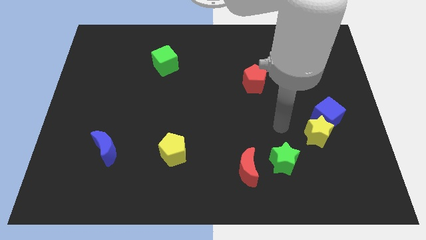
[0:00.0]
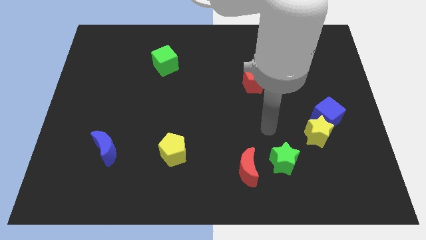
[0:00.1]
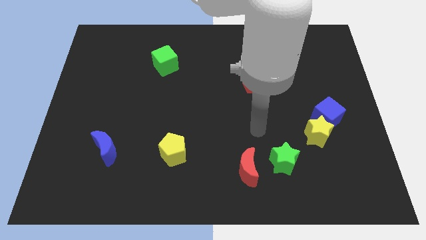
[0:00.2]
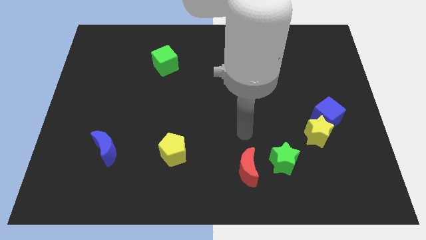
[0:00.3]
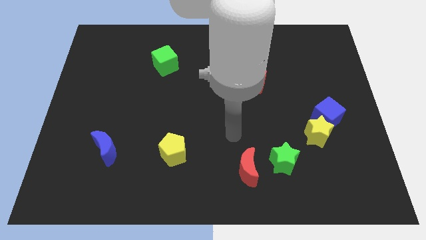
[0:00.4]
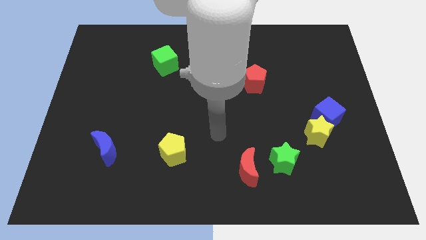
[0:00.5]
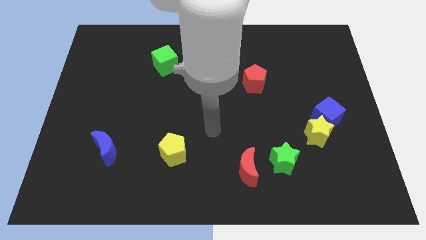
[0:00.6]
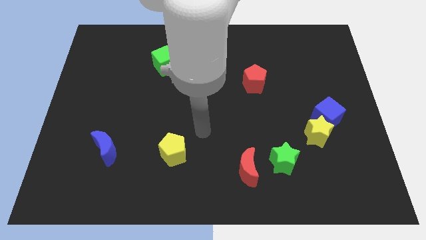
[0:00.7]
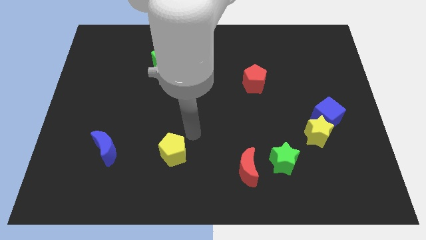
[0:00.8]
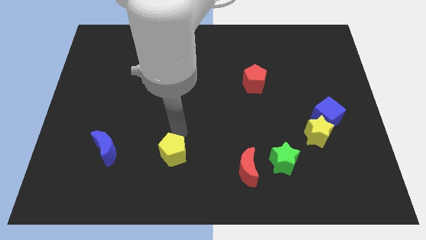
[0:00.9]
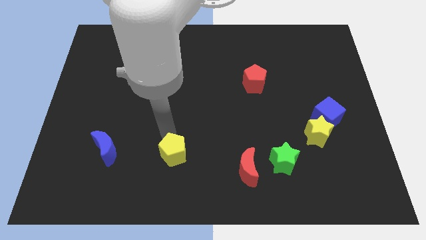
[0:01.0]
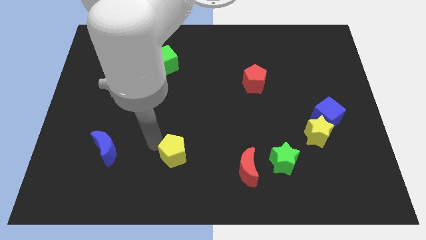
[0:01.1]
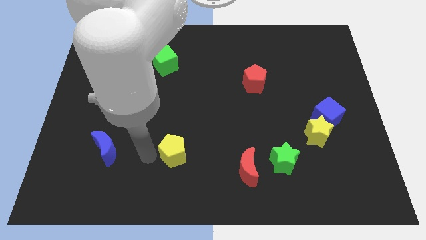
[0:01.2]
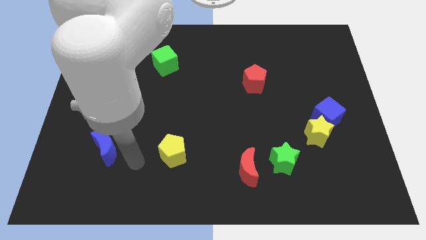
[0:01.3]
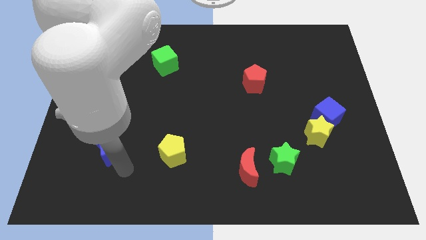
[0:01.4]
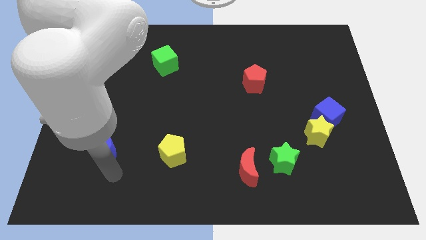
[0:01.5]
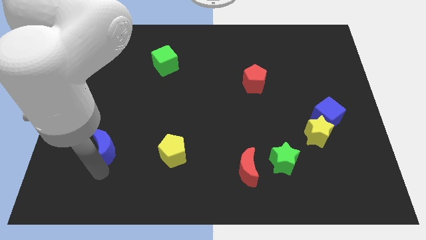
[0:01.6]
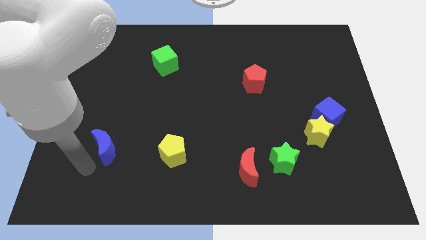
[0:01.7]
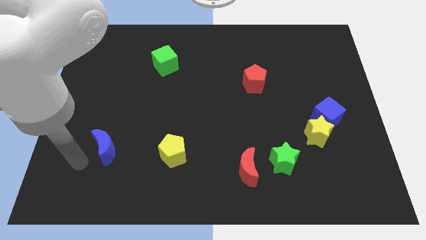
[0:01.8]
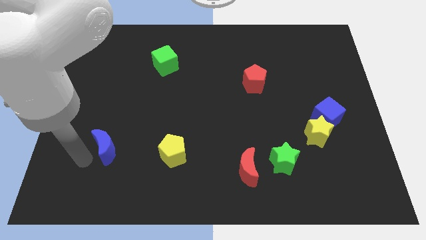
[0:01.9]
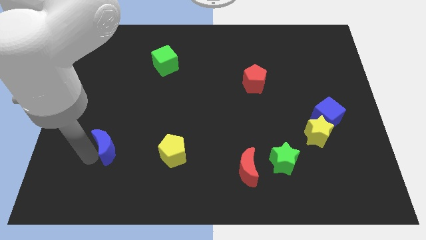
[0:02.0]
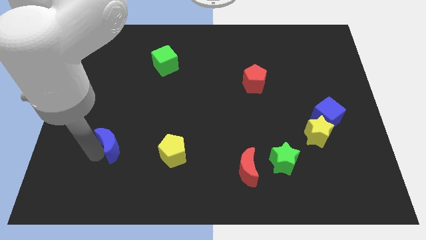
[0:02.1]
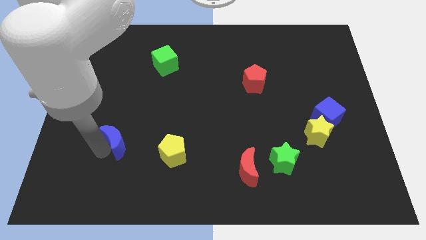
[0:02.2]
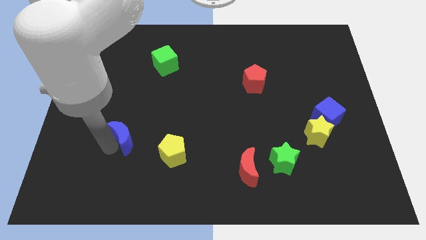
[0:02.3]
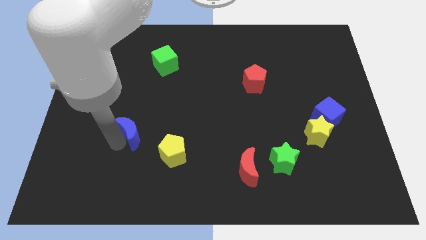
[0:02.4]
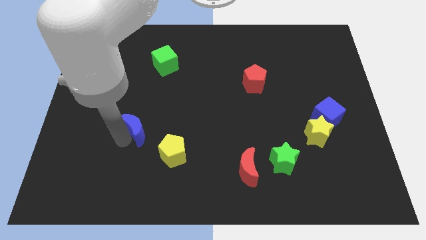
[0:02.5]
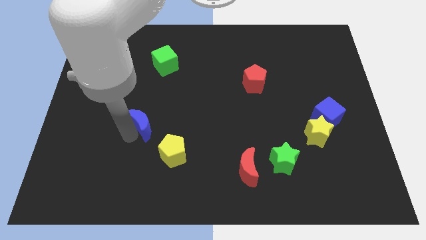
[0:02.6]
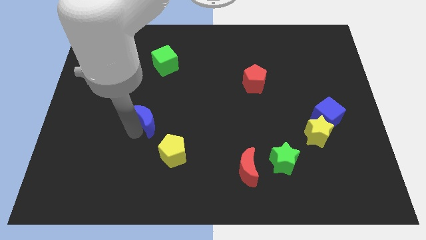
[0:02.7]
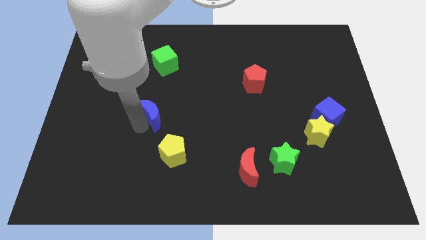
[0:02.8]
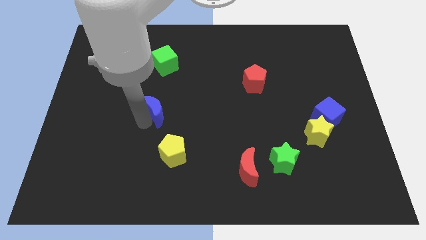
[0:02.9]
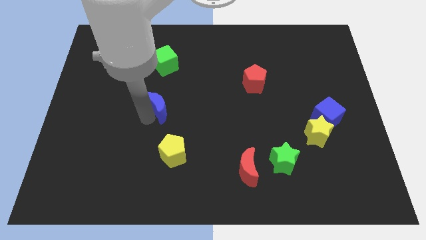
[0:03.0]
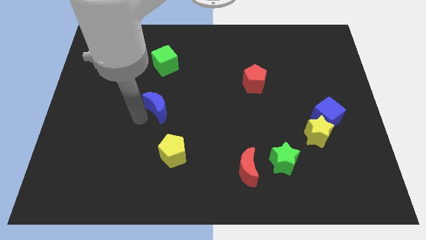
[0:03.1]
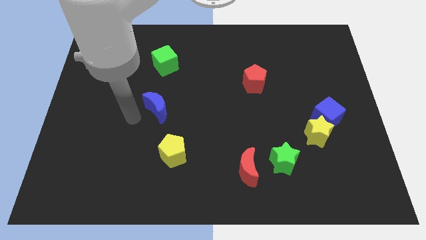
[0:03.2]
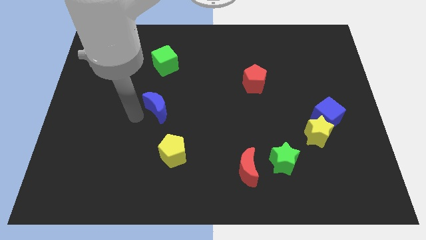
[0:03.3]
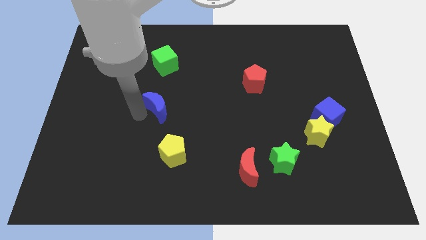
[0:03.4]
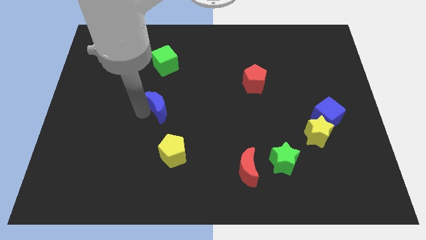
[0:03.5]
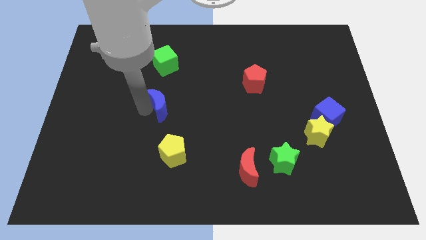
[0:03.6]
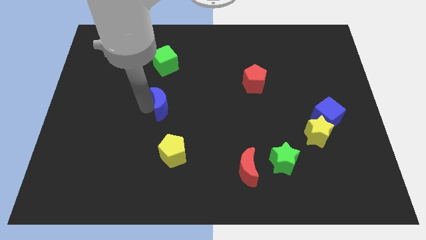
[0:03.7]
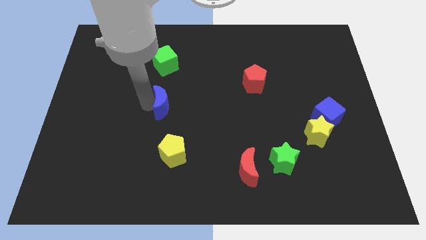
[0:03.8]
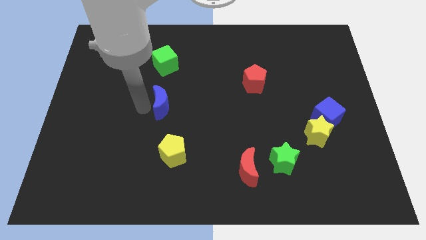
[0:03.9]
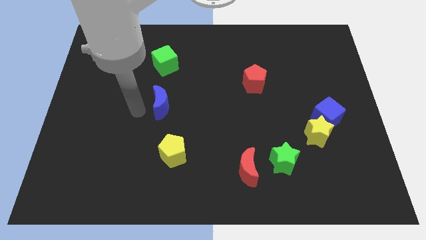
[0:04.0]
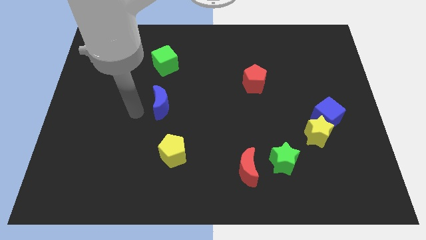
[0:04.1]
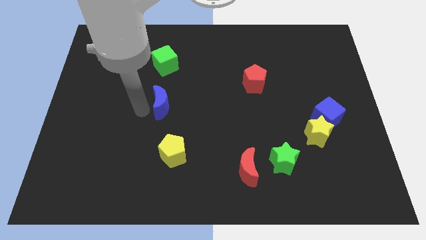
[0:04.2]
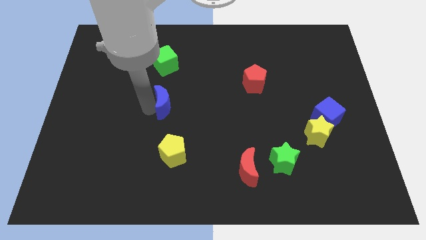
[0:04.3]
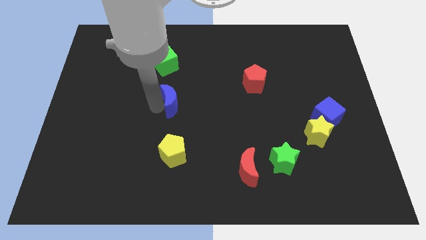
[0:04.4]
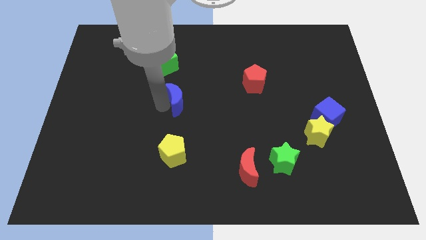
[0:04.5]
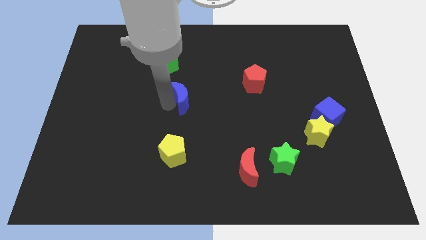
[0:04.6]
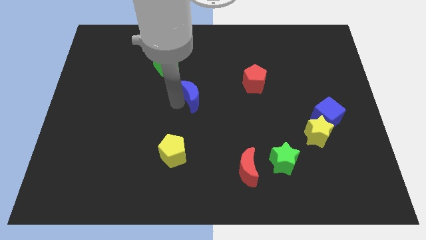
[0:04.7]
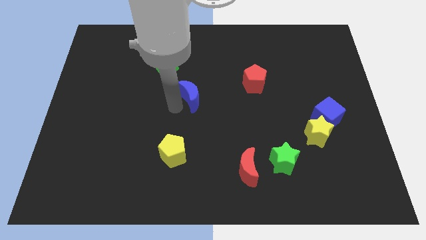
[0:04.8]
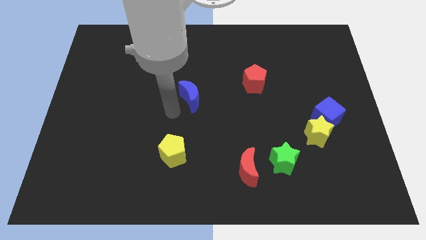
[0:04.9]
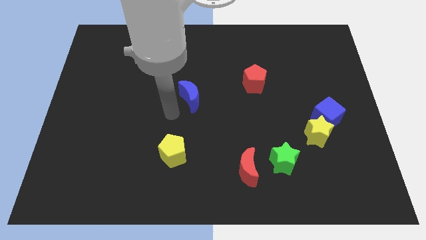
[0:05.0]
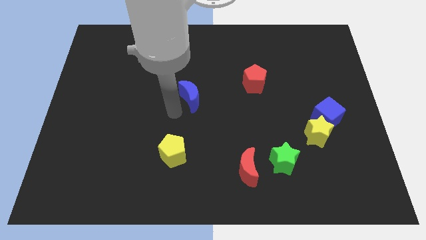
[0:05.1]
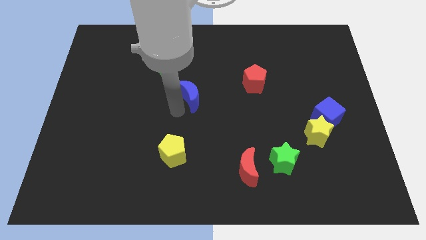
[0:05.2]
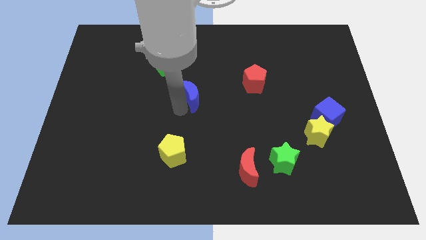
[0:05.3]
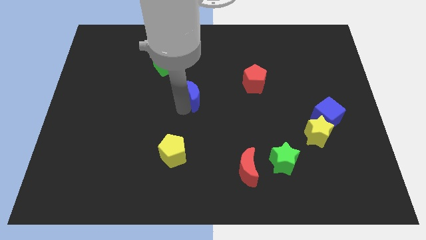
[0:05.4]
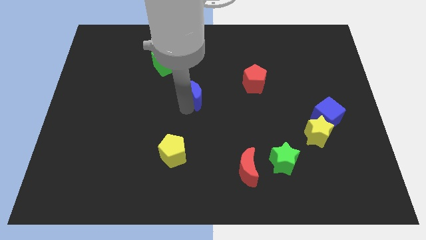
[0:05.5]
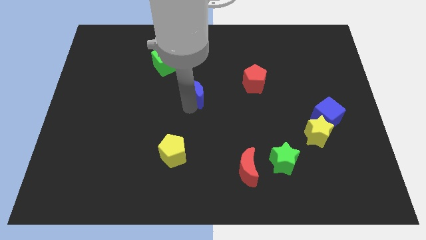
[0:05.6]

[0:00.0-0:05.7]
move the blue moon to the left of the red pentagon

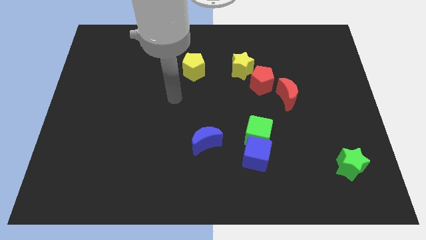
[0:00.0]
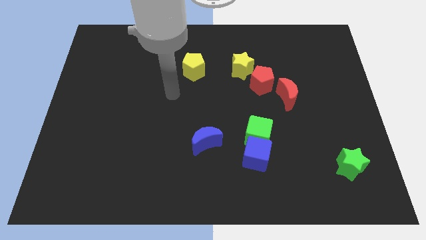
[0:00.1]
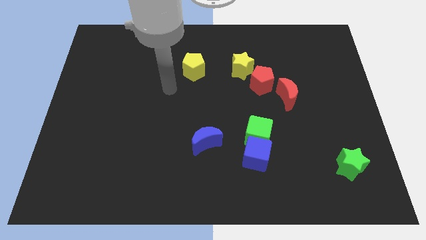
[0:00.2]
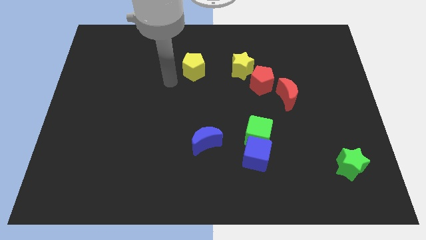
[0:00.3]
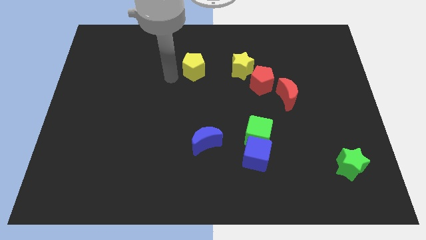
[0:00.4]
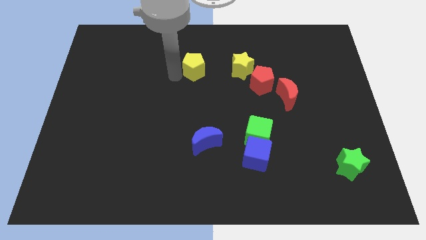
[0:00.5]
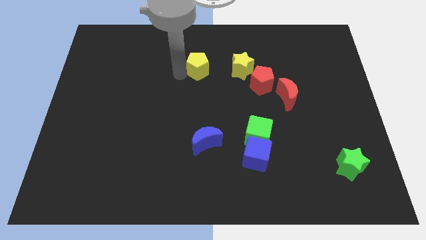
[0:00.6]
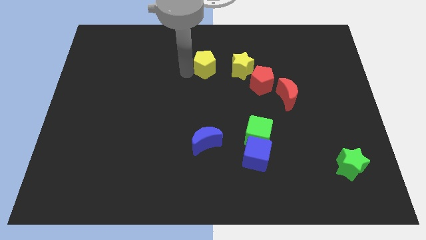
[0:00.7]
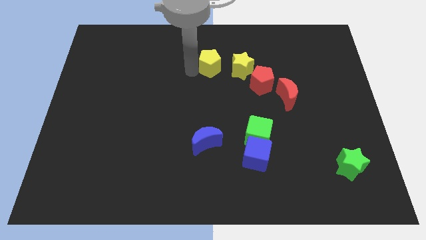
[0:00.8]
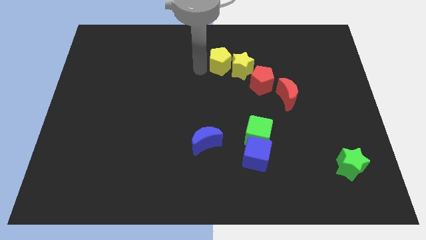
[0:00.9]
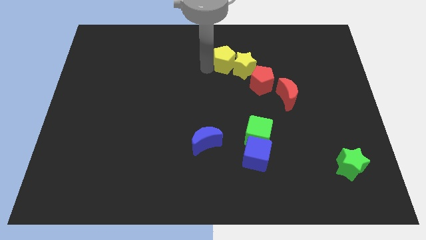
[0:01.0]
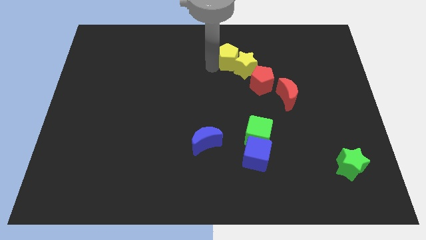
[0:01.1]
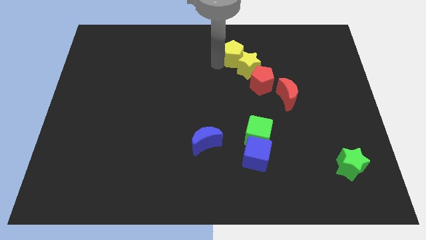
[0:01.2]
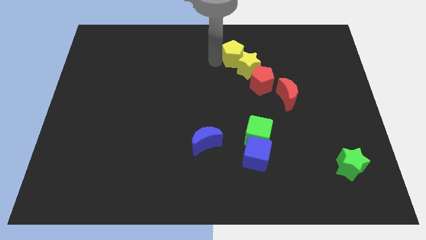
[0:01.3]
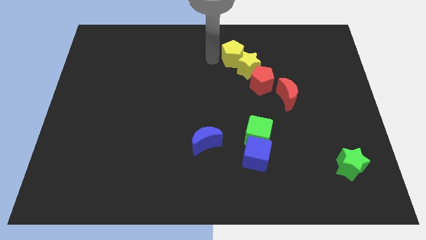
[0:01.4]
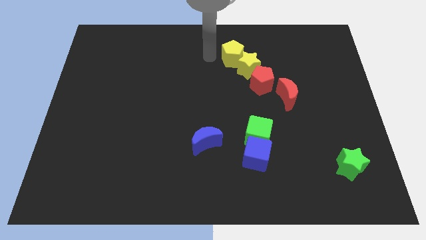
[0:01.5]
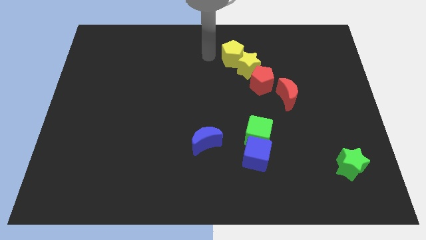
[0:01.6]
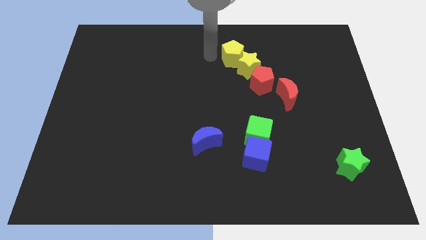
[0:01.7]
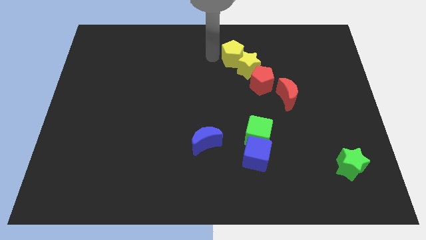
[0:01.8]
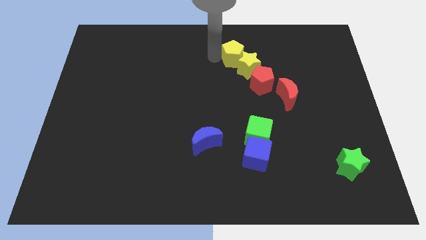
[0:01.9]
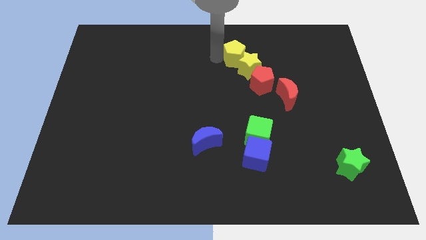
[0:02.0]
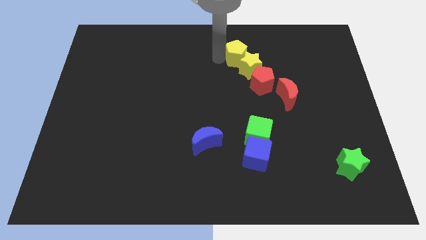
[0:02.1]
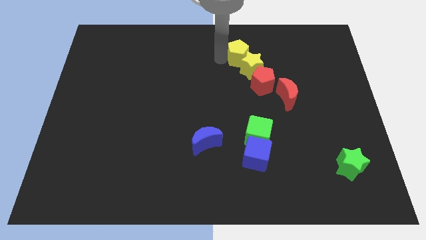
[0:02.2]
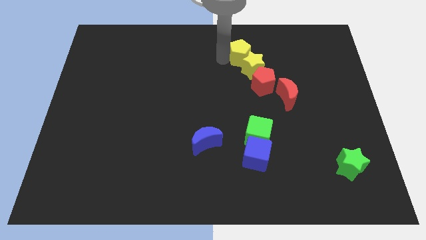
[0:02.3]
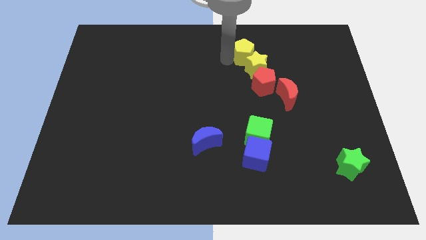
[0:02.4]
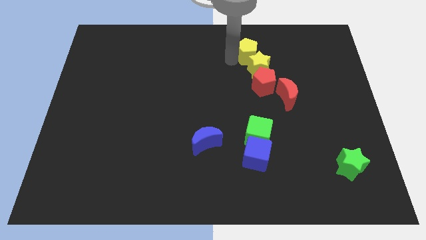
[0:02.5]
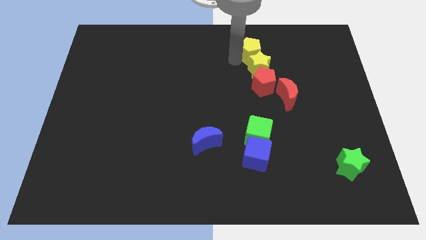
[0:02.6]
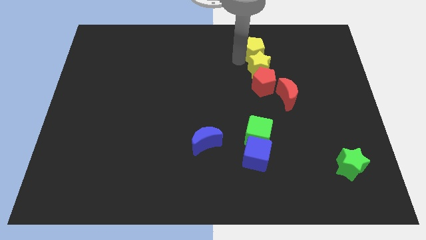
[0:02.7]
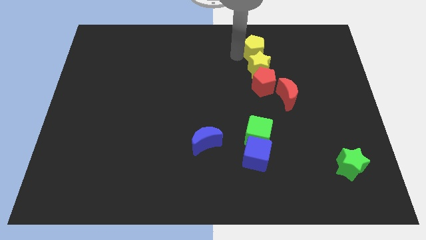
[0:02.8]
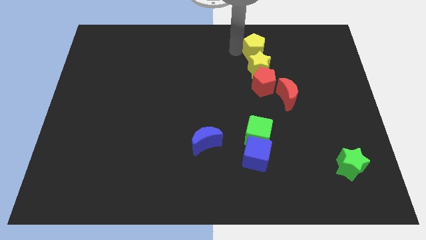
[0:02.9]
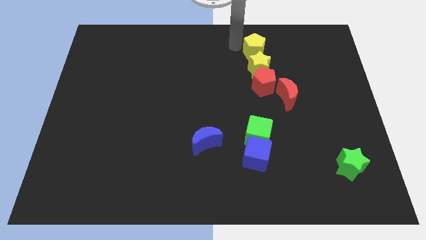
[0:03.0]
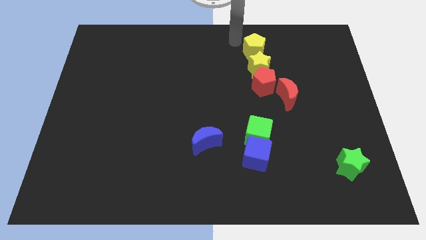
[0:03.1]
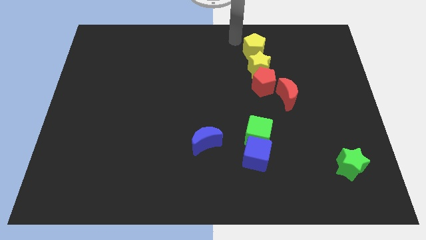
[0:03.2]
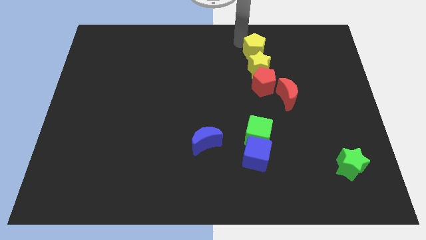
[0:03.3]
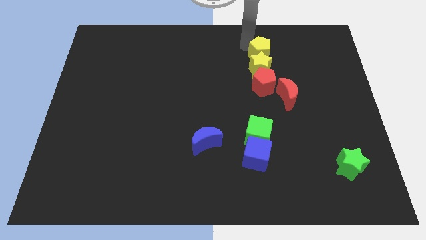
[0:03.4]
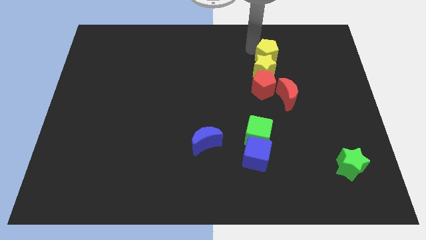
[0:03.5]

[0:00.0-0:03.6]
push the yellow pentagon above the red moon
